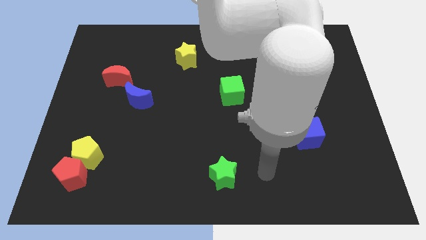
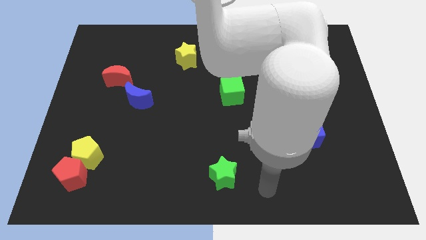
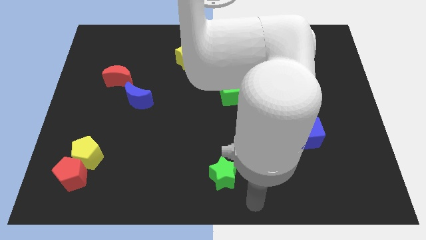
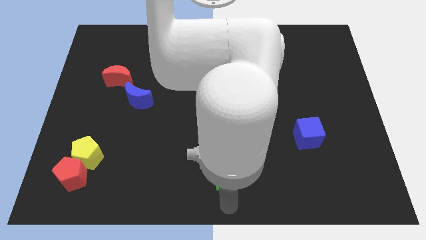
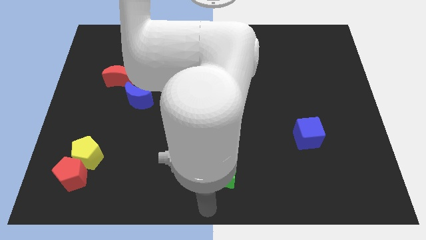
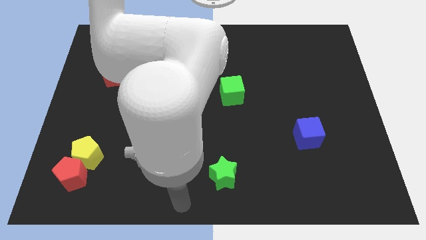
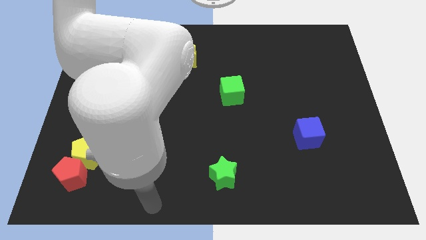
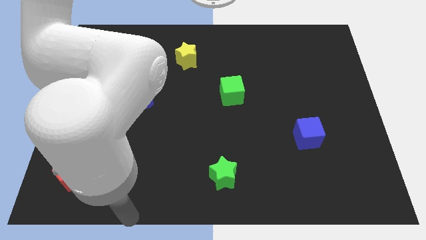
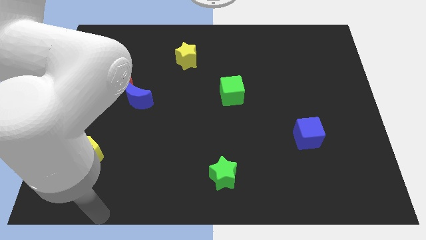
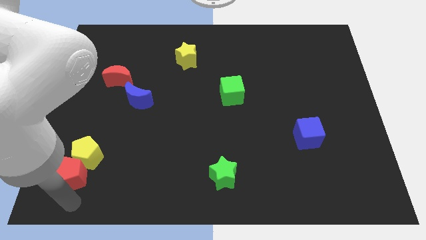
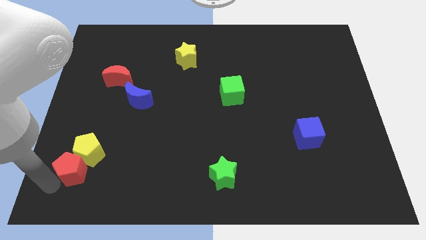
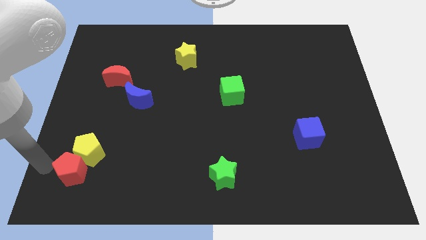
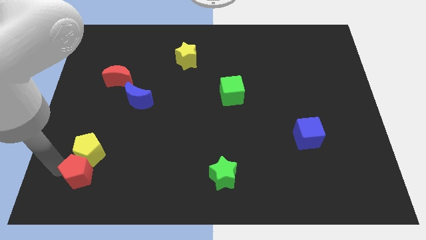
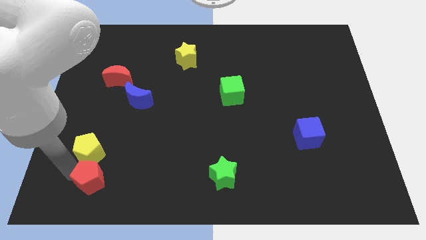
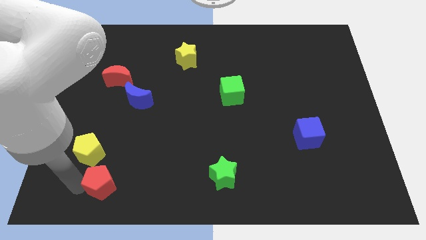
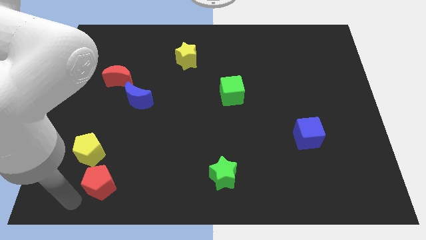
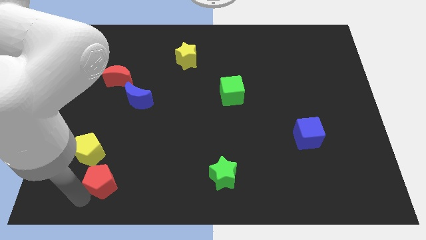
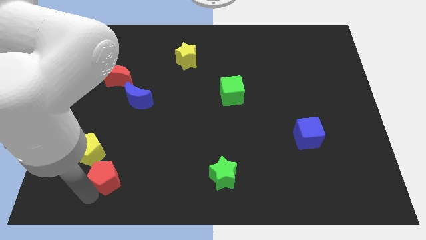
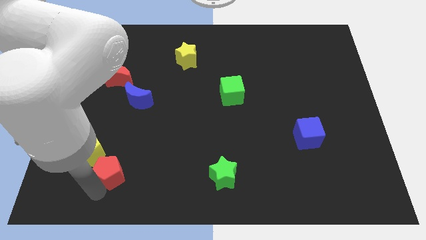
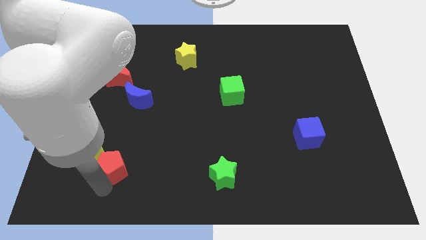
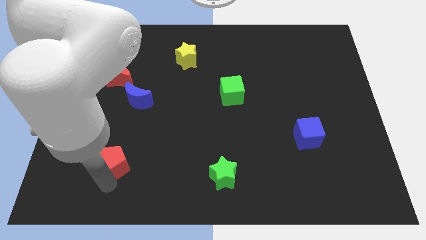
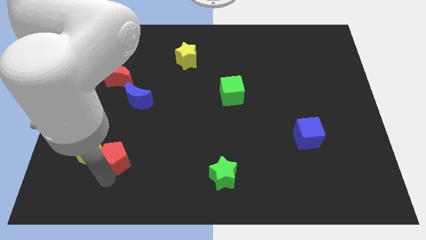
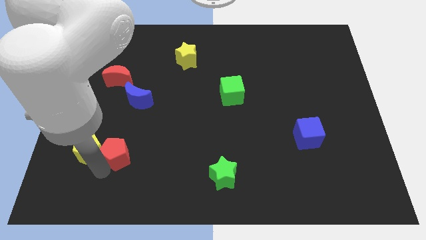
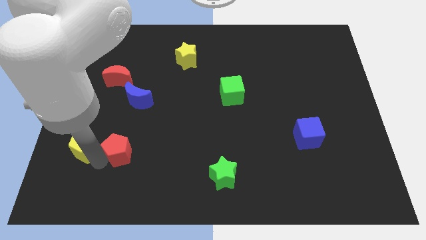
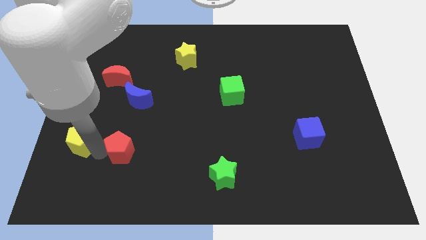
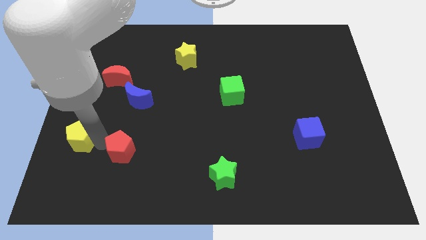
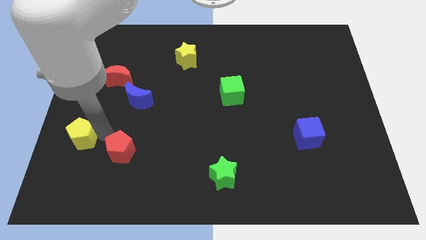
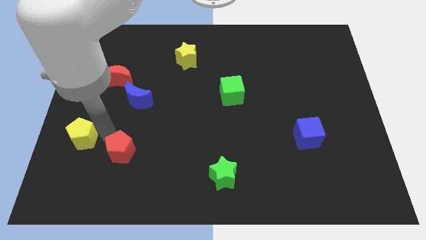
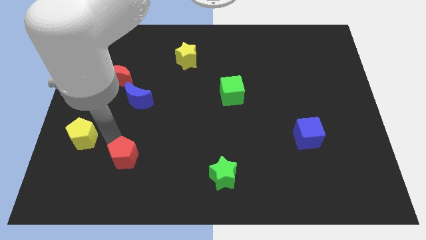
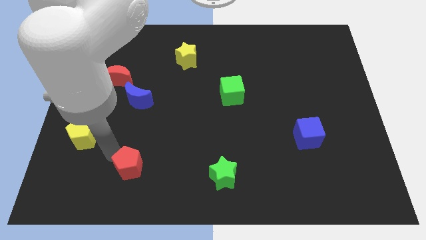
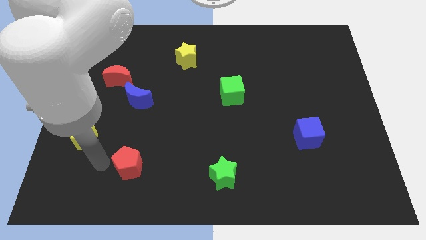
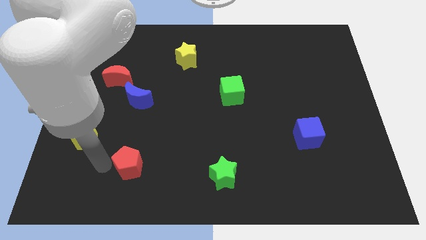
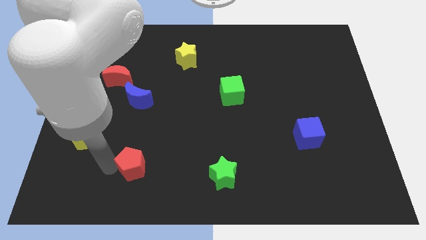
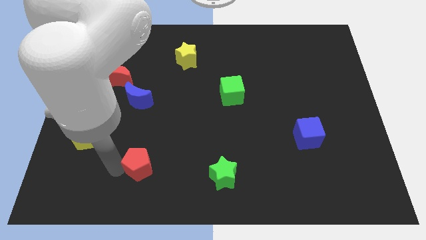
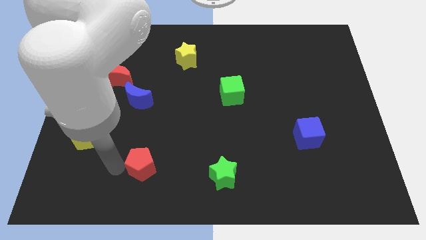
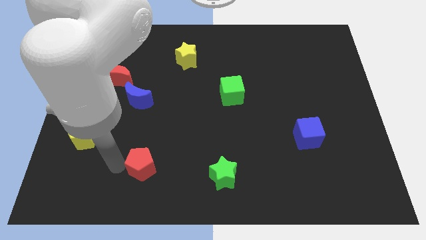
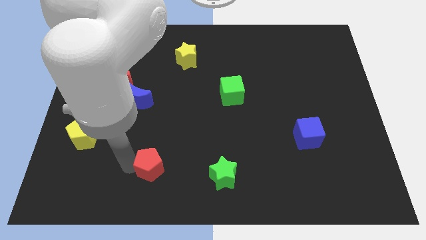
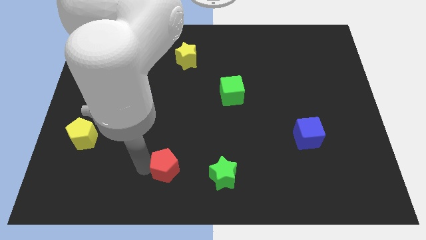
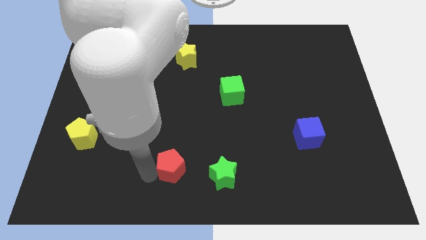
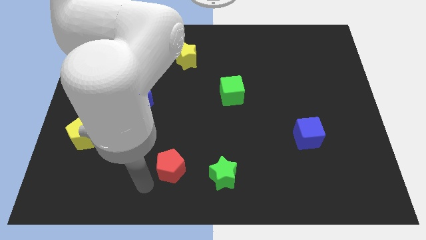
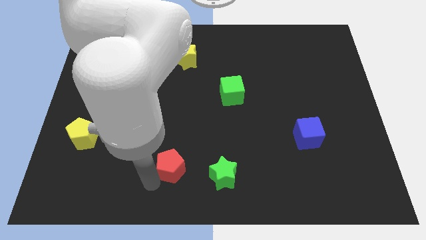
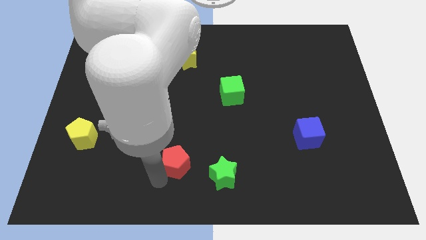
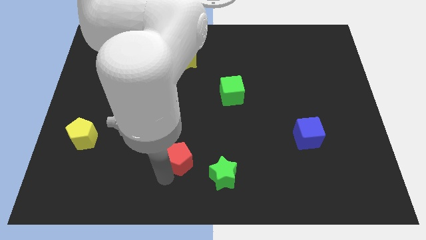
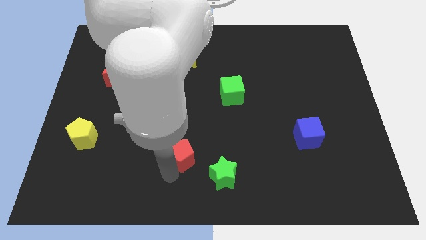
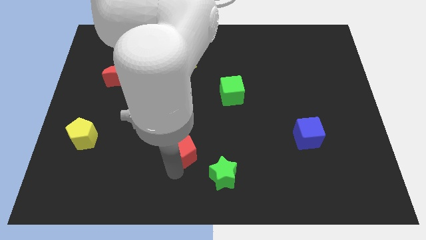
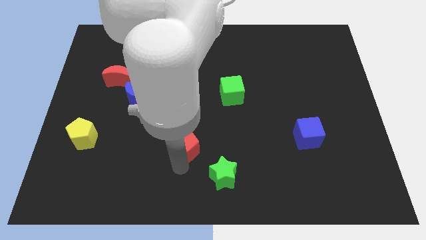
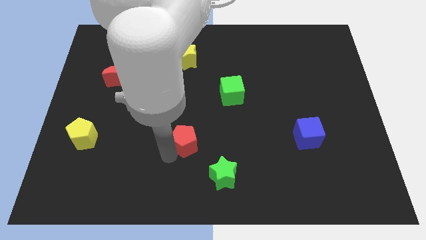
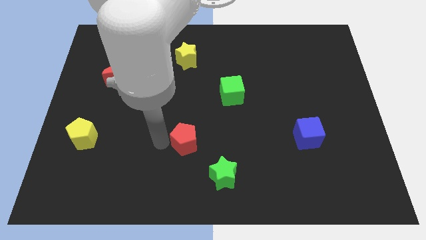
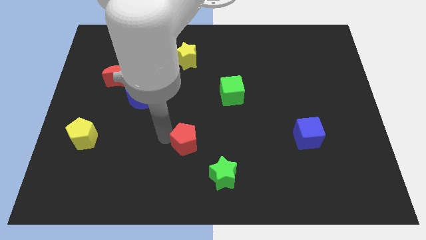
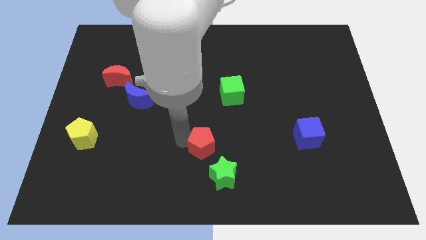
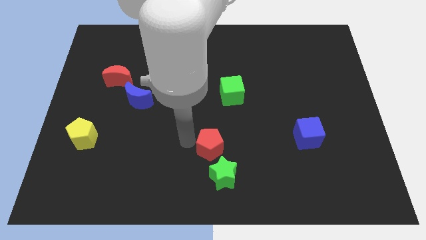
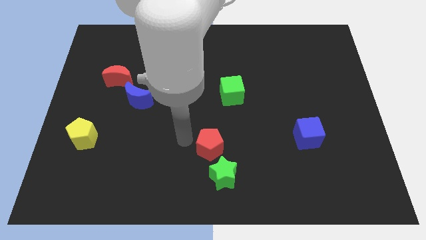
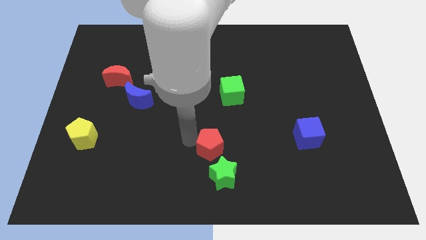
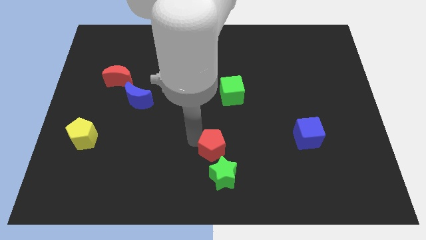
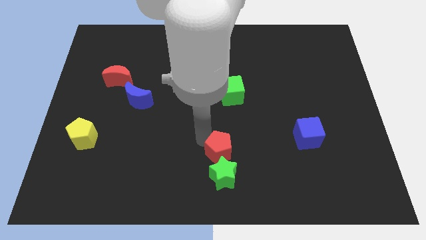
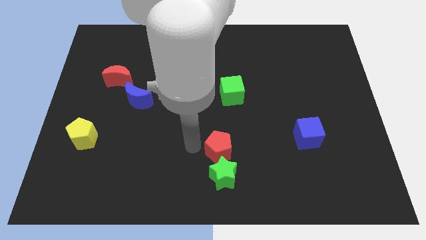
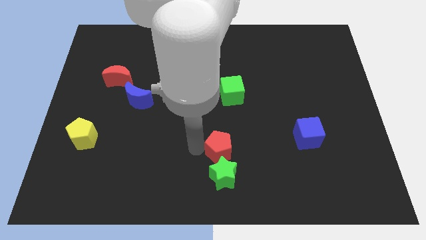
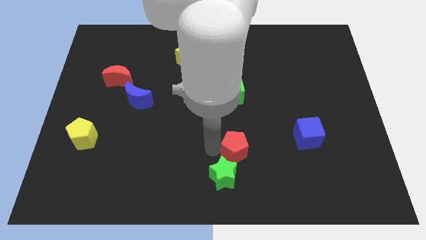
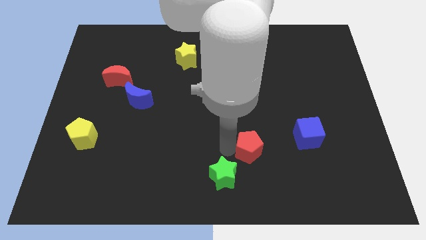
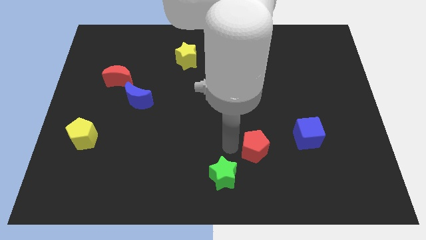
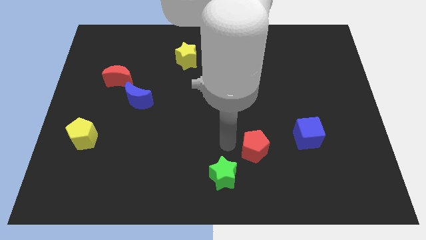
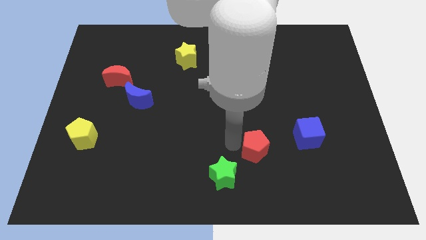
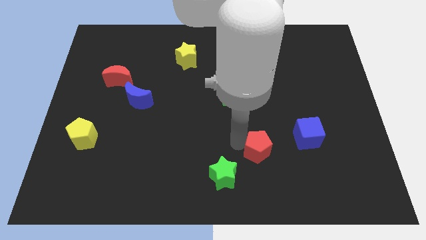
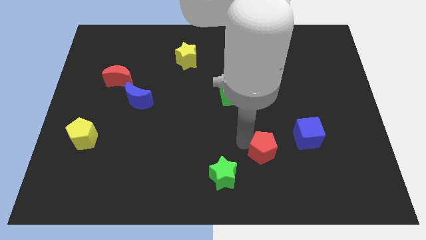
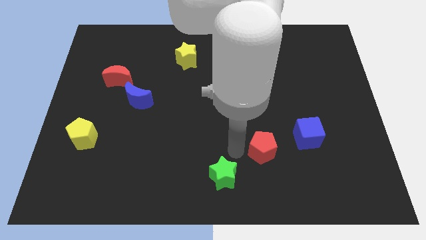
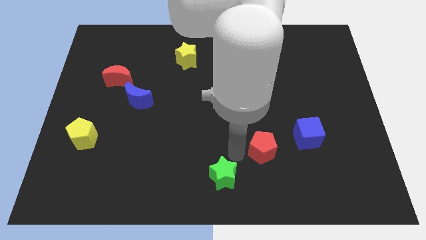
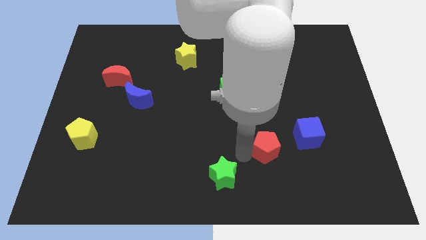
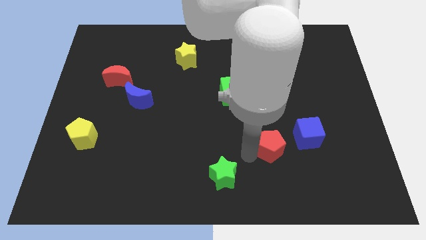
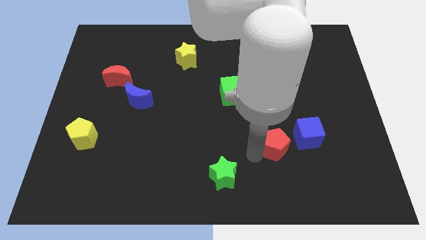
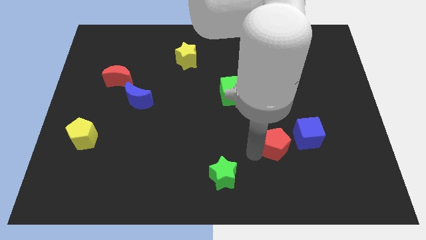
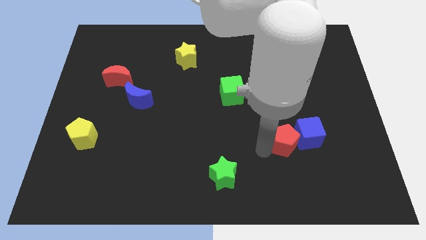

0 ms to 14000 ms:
move the red pentagon close to the blue cube
